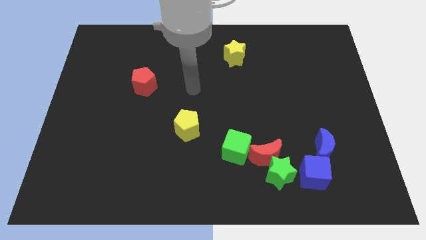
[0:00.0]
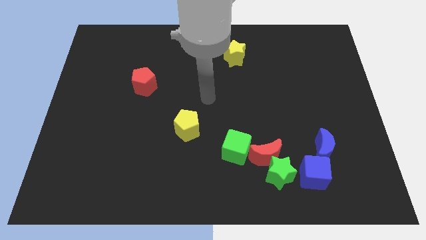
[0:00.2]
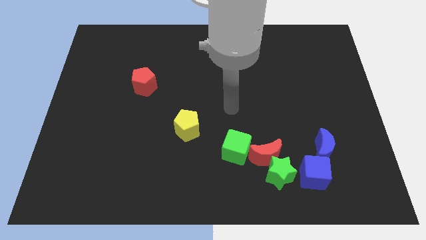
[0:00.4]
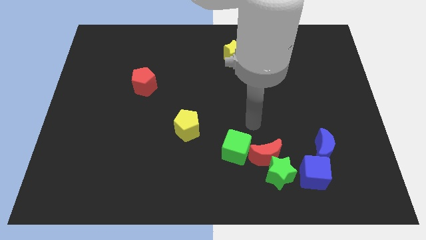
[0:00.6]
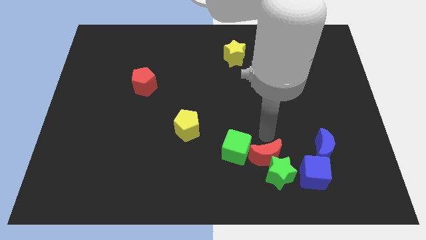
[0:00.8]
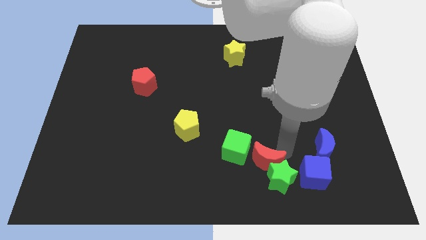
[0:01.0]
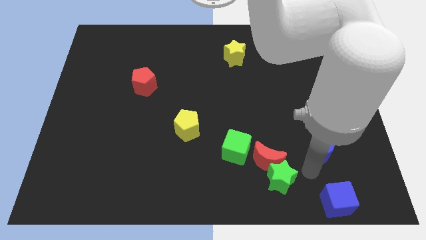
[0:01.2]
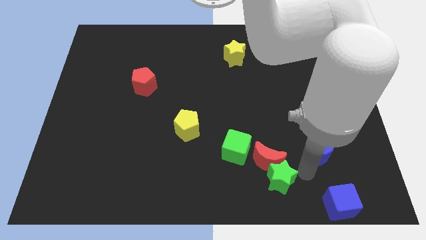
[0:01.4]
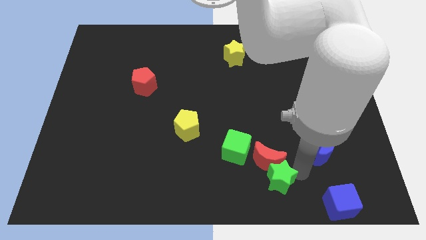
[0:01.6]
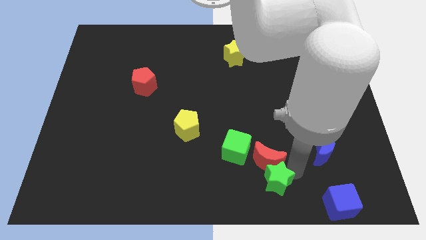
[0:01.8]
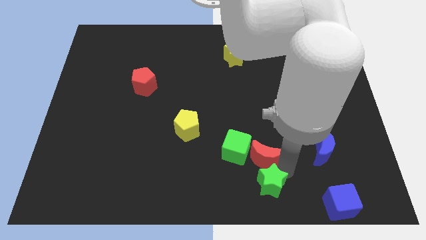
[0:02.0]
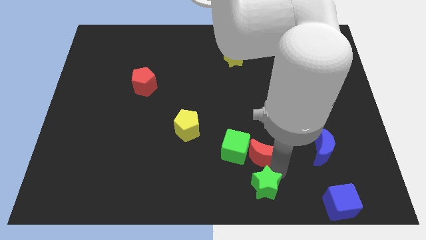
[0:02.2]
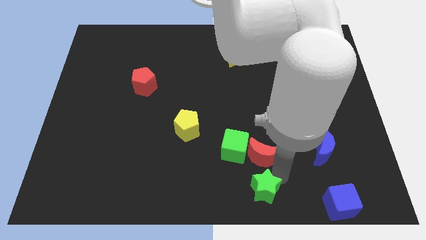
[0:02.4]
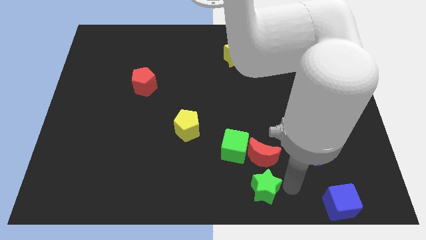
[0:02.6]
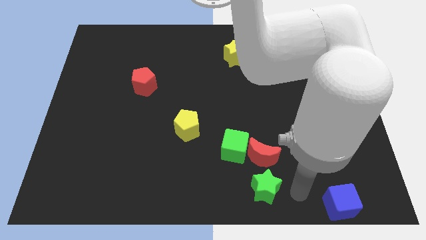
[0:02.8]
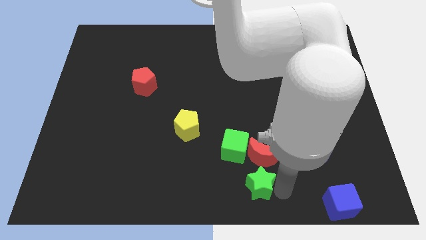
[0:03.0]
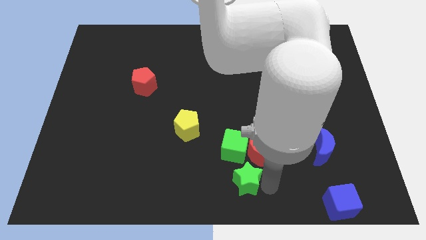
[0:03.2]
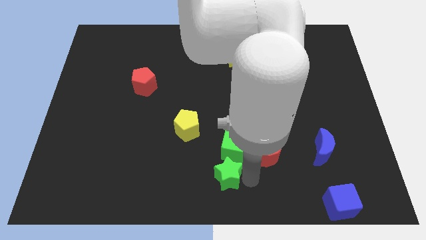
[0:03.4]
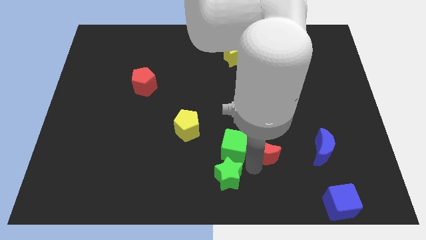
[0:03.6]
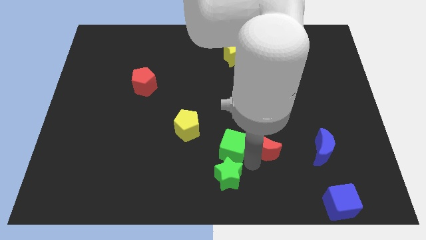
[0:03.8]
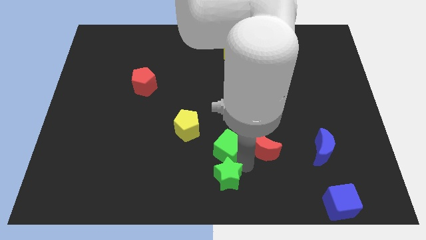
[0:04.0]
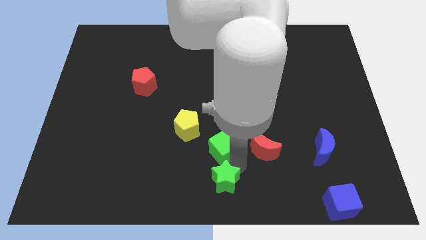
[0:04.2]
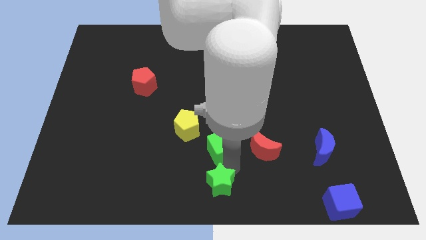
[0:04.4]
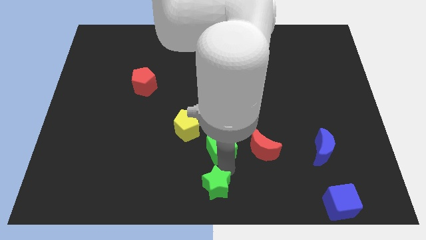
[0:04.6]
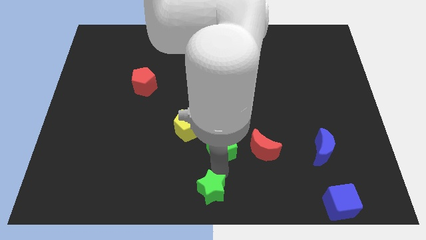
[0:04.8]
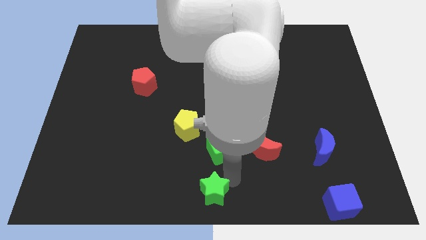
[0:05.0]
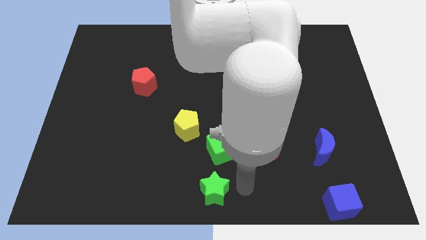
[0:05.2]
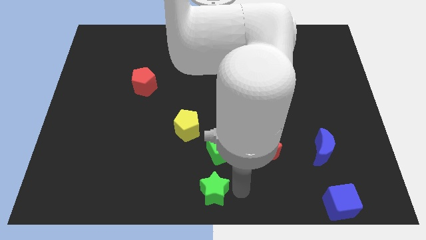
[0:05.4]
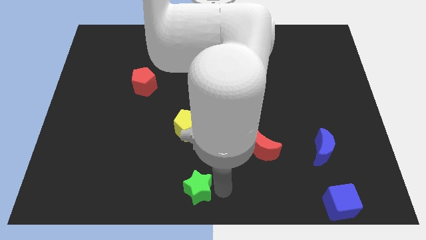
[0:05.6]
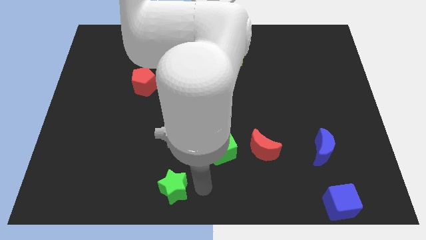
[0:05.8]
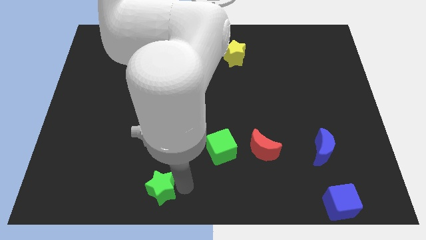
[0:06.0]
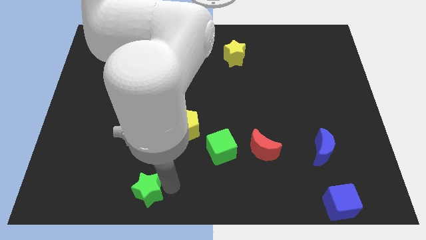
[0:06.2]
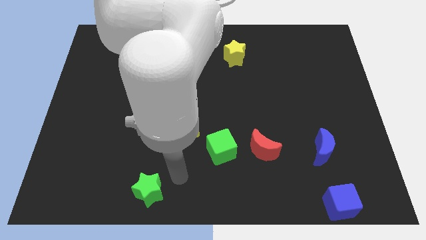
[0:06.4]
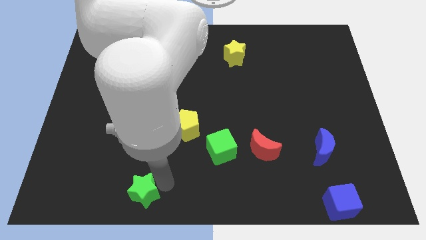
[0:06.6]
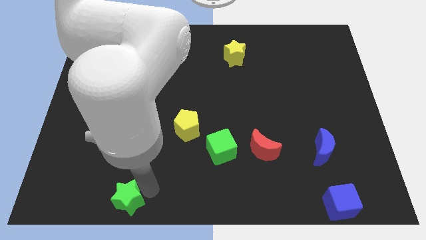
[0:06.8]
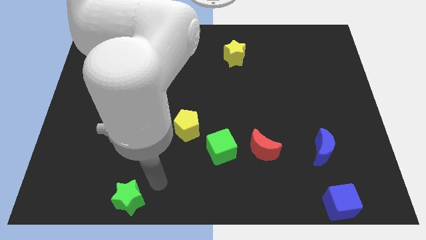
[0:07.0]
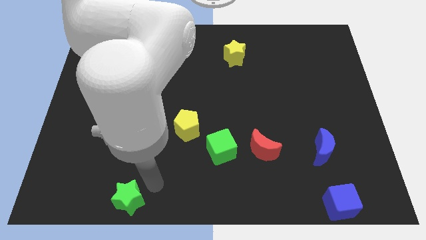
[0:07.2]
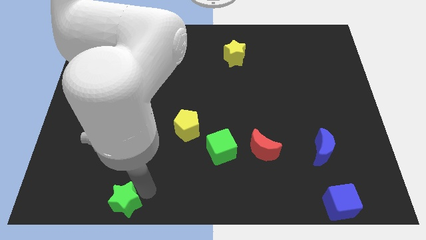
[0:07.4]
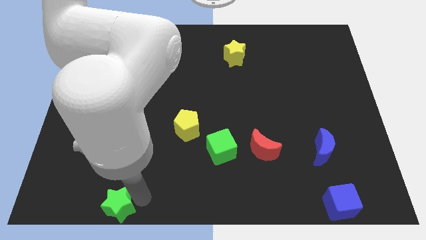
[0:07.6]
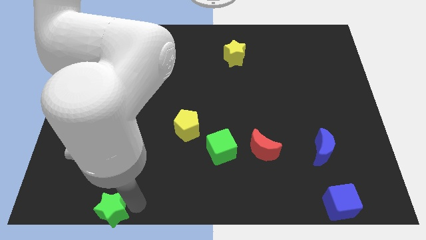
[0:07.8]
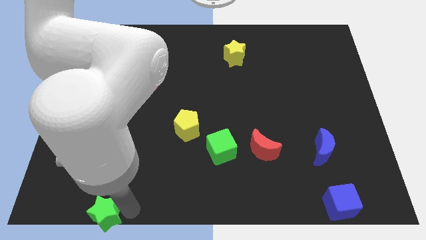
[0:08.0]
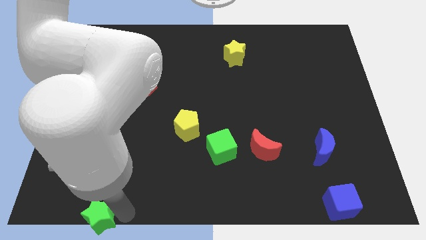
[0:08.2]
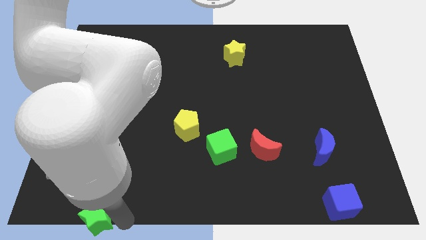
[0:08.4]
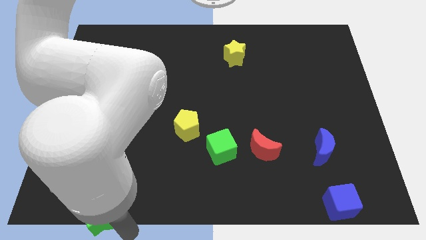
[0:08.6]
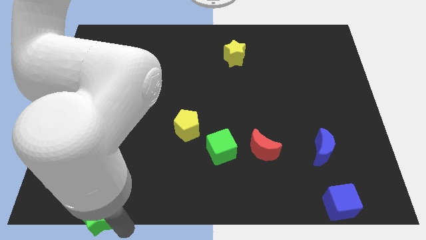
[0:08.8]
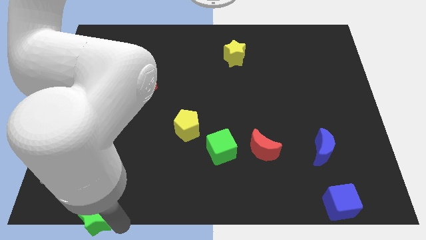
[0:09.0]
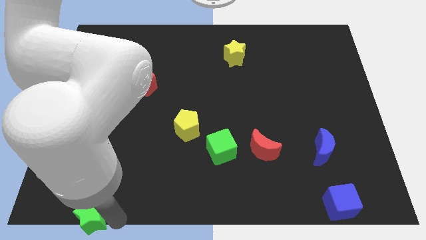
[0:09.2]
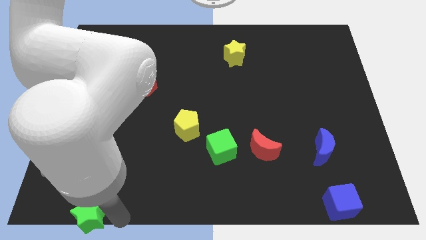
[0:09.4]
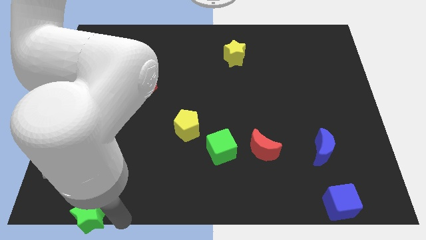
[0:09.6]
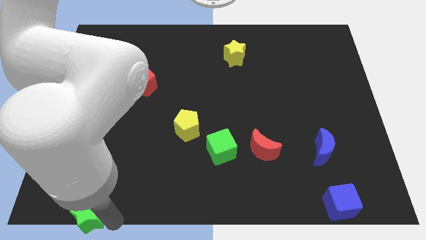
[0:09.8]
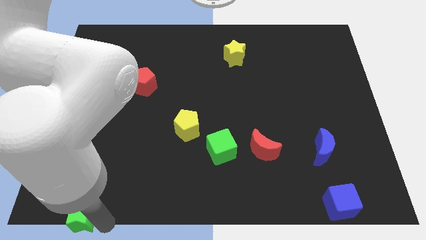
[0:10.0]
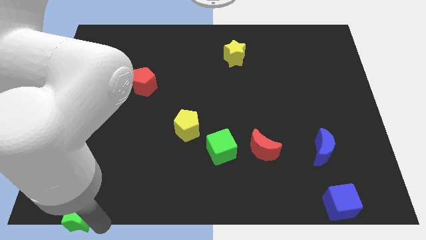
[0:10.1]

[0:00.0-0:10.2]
slide the green star to the bottom left of the board

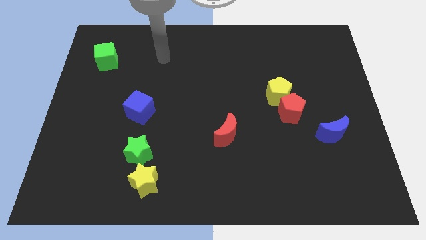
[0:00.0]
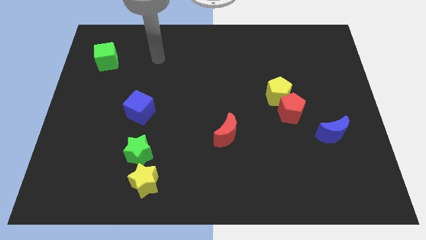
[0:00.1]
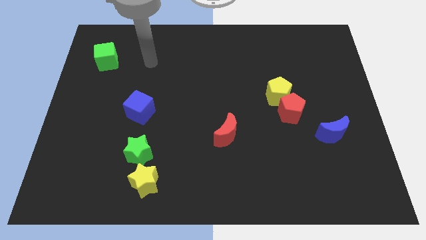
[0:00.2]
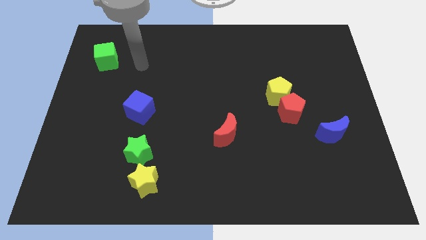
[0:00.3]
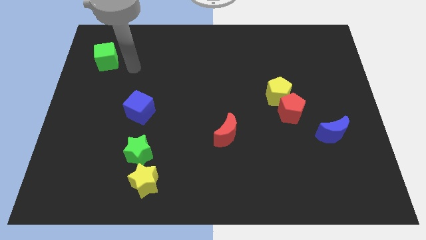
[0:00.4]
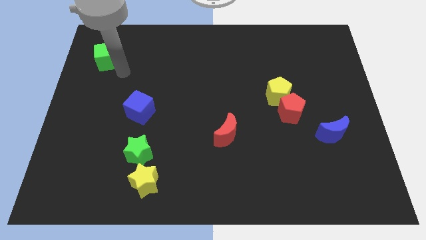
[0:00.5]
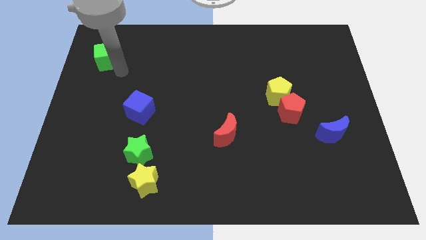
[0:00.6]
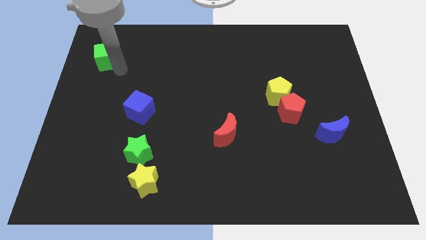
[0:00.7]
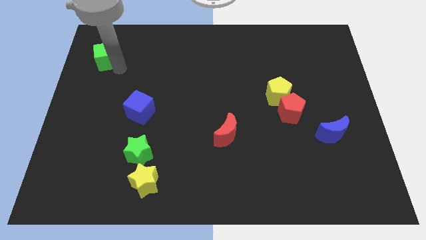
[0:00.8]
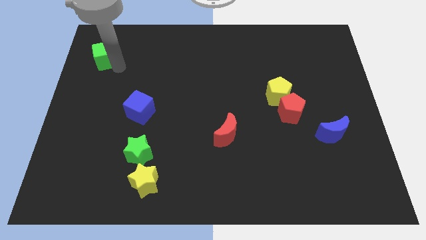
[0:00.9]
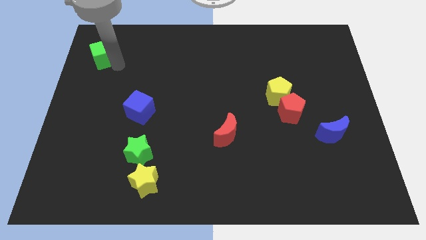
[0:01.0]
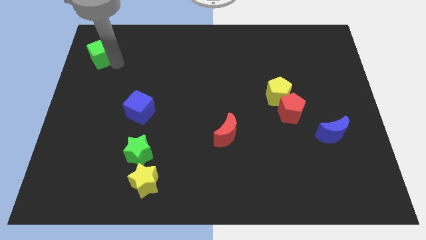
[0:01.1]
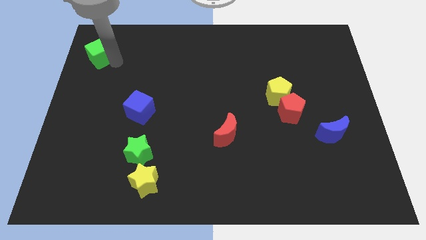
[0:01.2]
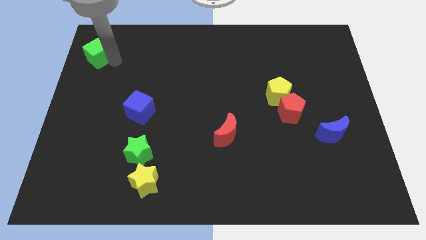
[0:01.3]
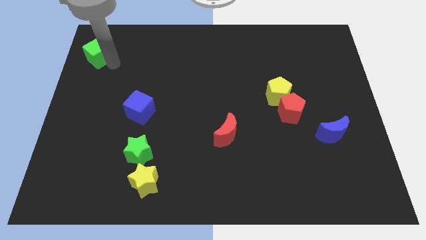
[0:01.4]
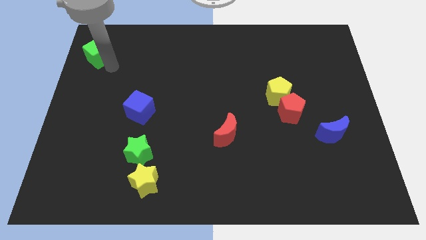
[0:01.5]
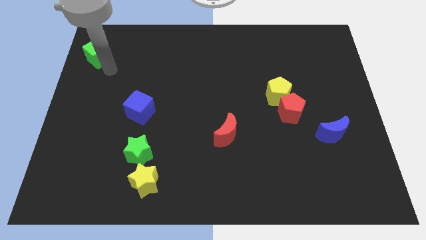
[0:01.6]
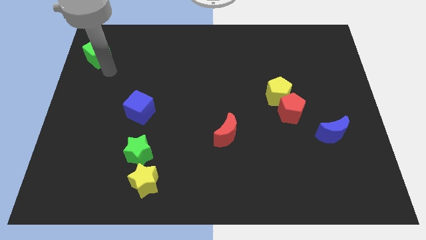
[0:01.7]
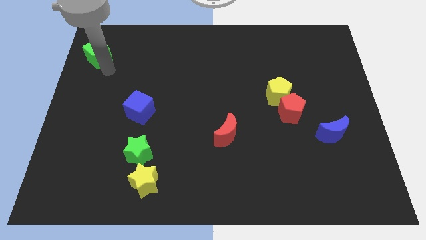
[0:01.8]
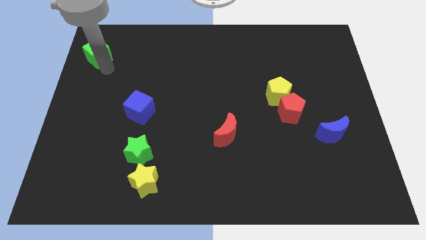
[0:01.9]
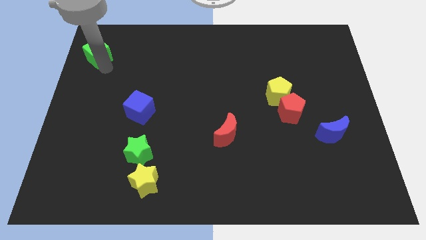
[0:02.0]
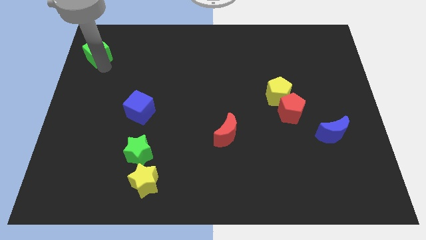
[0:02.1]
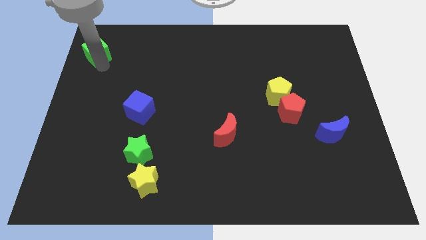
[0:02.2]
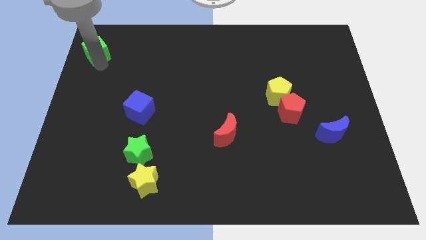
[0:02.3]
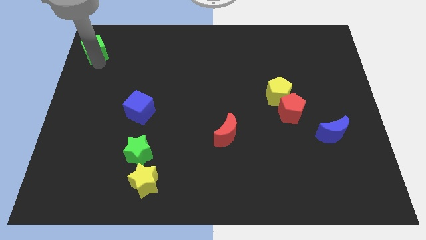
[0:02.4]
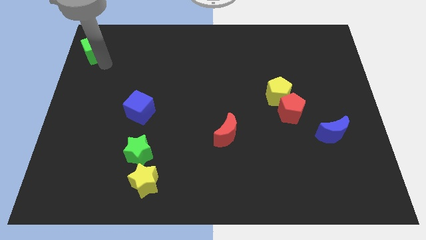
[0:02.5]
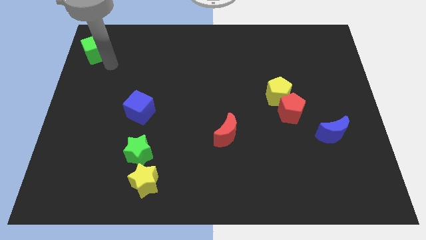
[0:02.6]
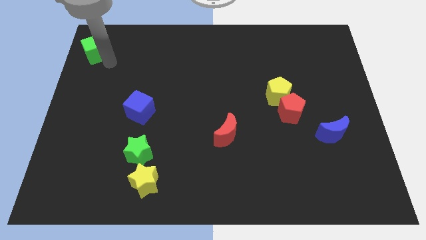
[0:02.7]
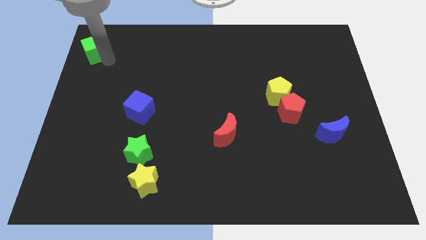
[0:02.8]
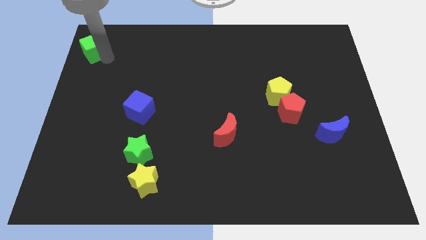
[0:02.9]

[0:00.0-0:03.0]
push the green cube to the top left
